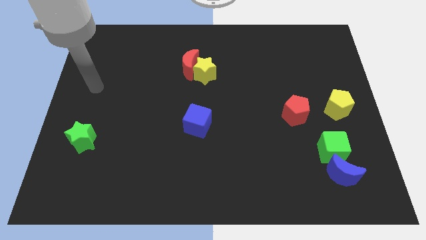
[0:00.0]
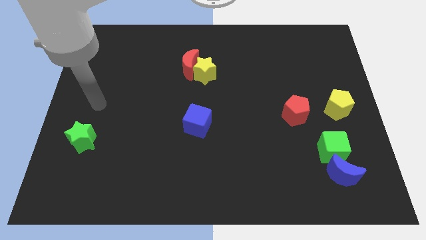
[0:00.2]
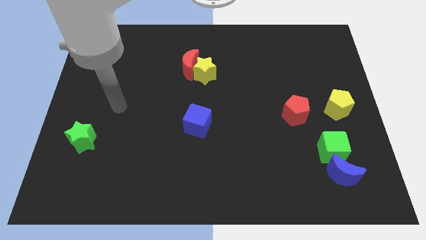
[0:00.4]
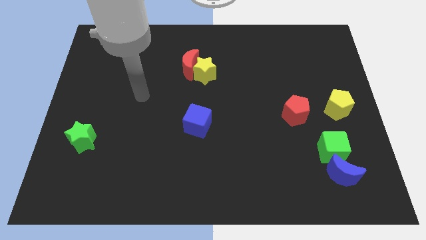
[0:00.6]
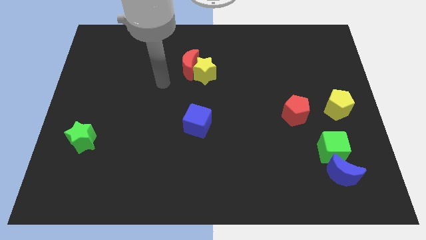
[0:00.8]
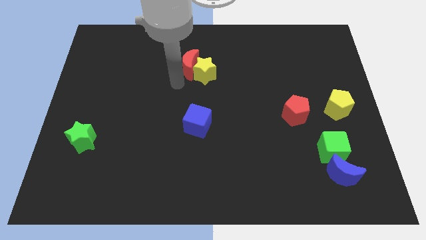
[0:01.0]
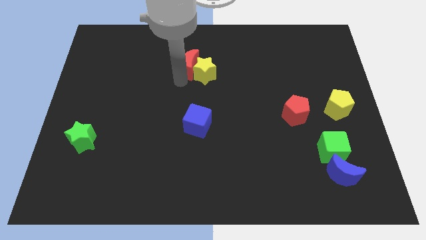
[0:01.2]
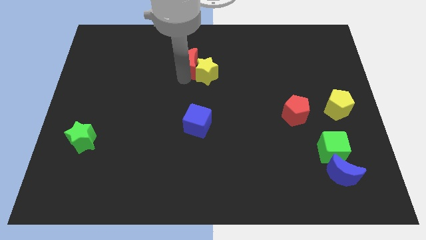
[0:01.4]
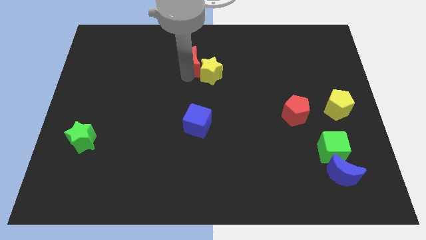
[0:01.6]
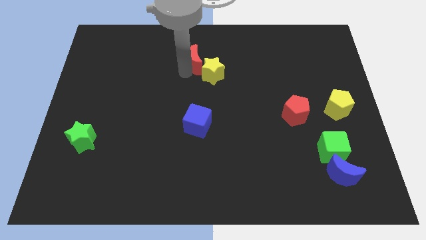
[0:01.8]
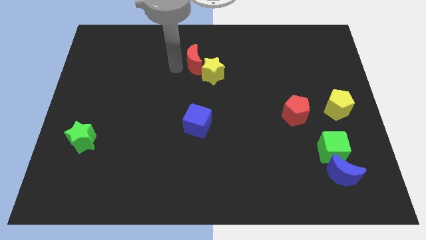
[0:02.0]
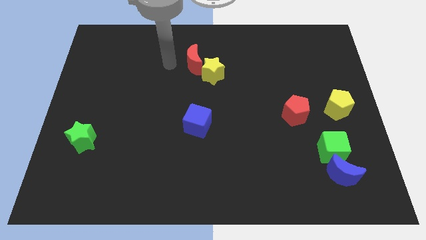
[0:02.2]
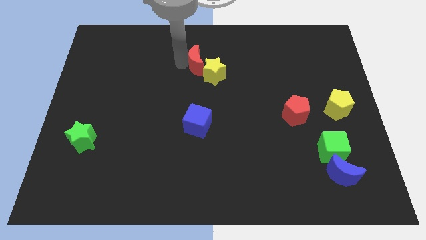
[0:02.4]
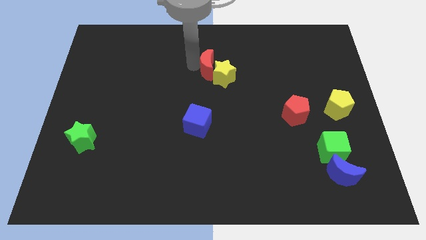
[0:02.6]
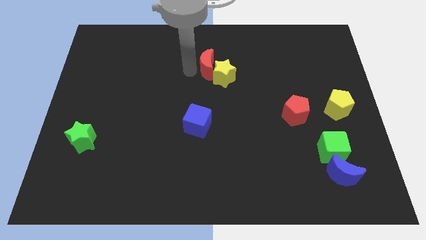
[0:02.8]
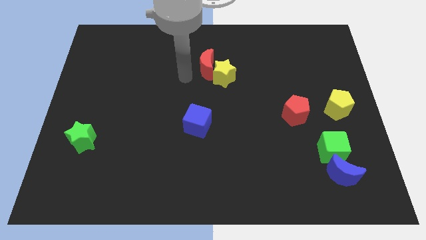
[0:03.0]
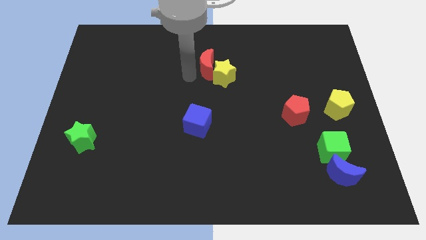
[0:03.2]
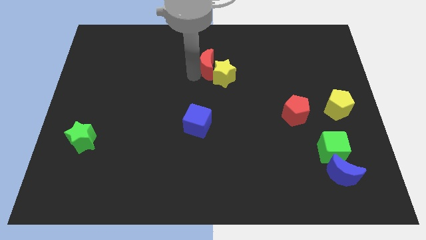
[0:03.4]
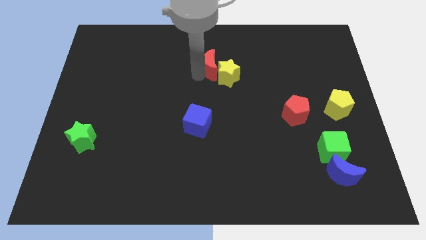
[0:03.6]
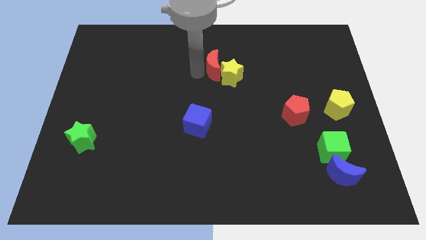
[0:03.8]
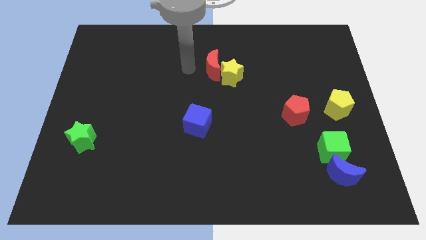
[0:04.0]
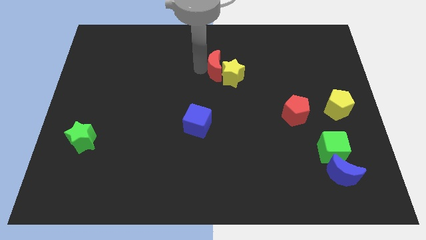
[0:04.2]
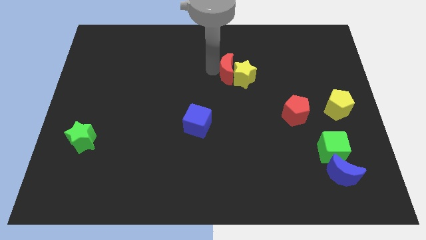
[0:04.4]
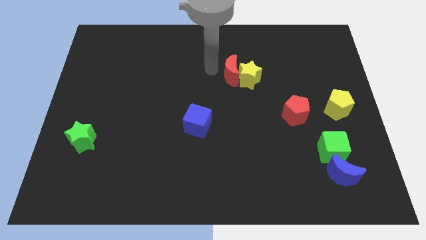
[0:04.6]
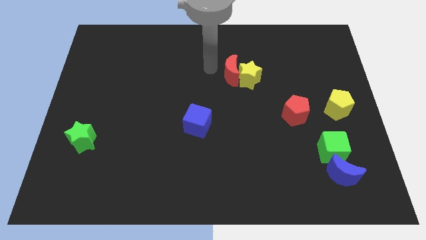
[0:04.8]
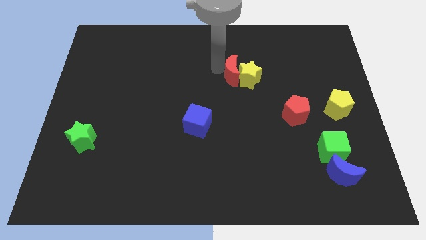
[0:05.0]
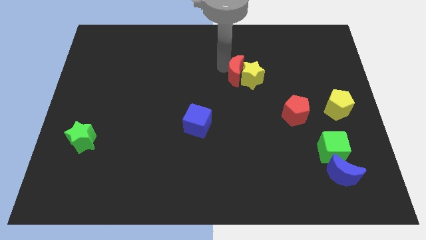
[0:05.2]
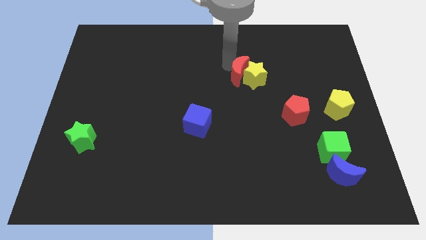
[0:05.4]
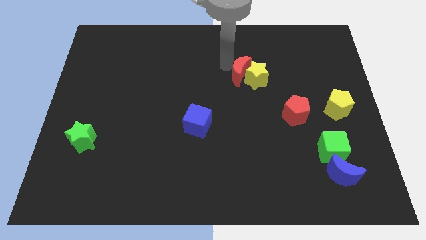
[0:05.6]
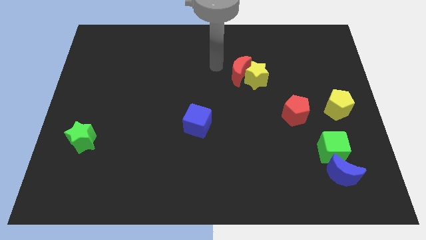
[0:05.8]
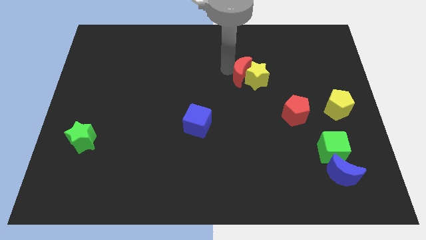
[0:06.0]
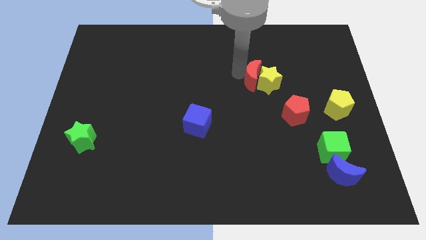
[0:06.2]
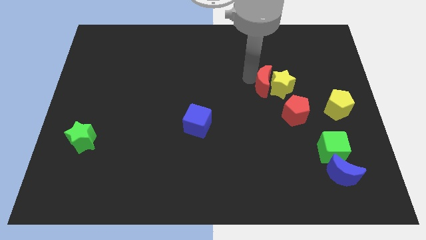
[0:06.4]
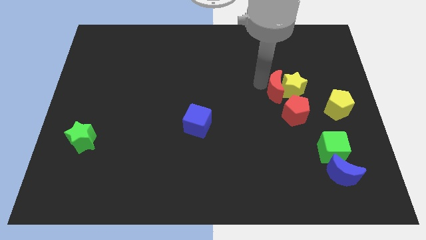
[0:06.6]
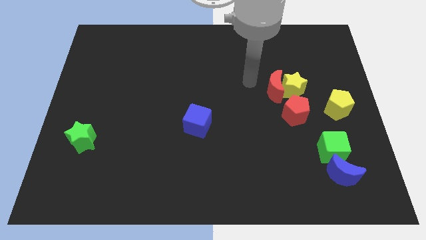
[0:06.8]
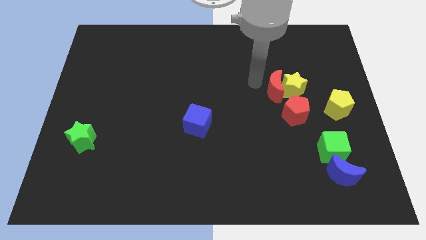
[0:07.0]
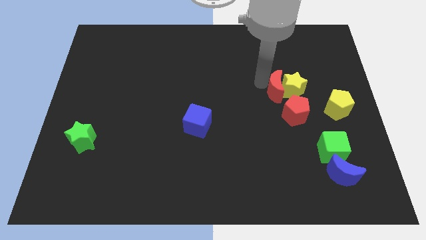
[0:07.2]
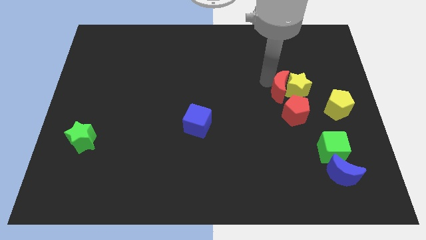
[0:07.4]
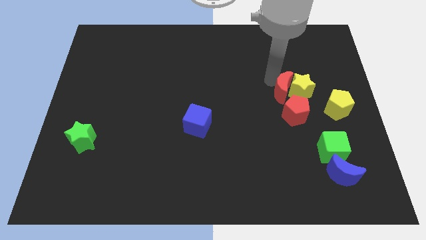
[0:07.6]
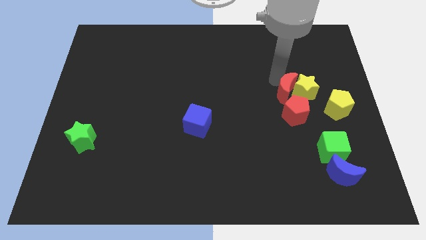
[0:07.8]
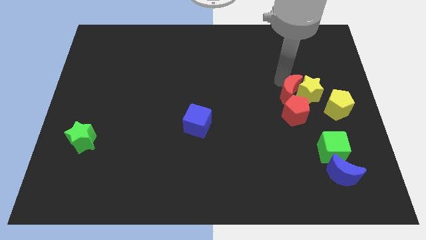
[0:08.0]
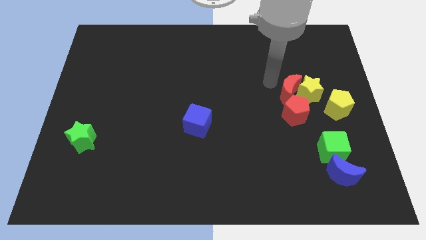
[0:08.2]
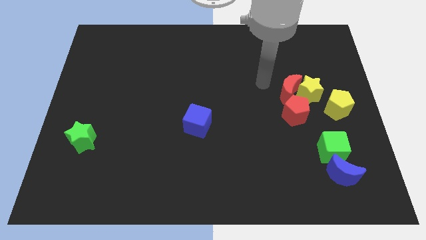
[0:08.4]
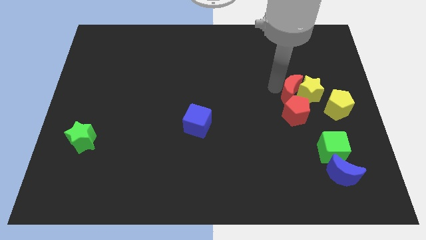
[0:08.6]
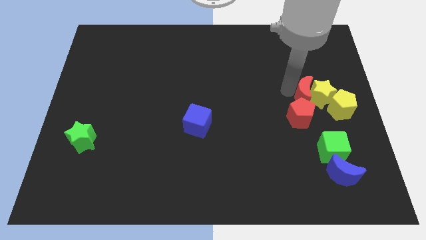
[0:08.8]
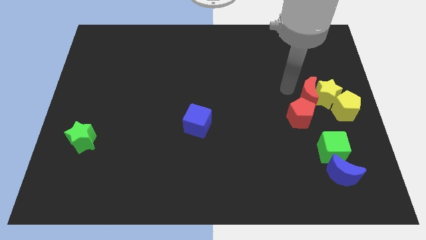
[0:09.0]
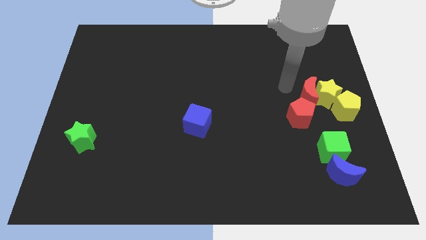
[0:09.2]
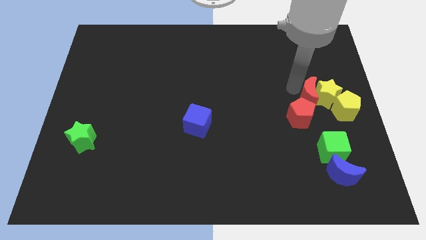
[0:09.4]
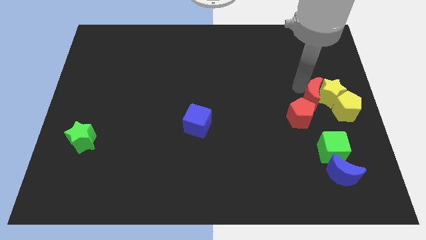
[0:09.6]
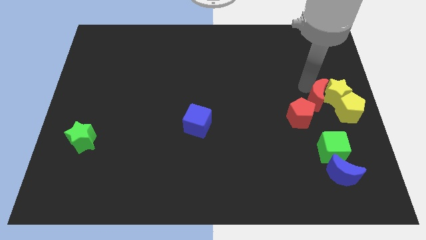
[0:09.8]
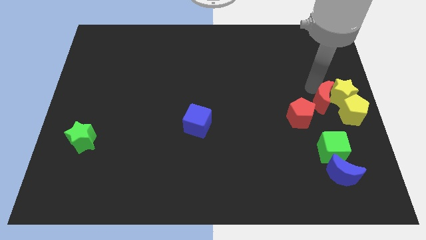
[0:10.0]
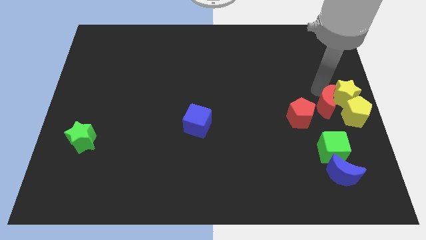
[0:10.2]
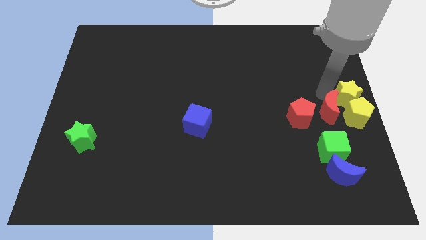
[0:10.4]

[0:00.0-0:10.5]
slide the red moon close to the yellow pentagon

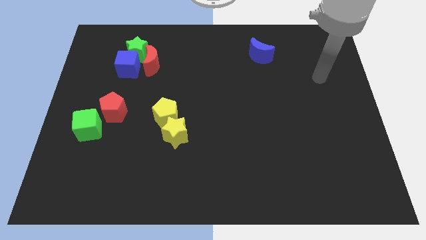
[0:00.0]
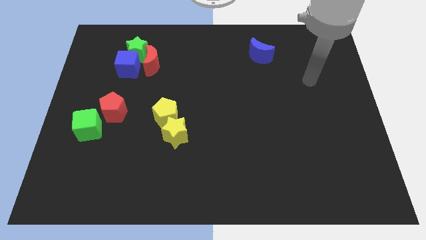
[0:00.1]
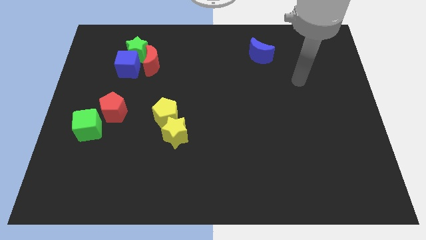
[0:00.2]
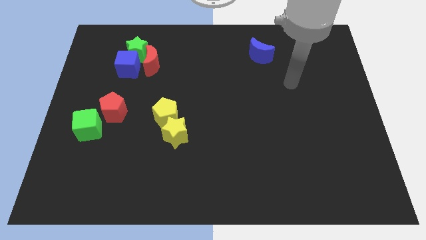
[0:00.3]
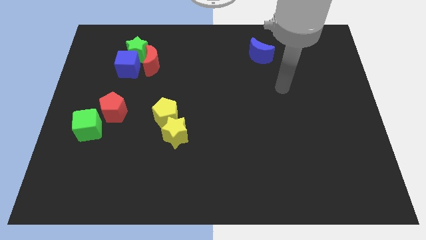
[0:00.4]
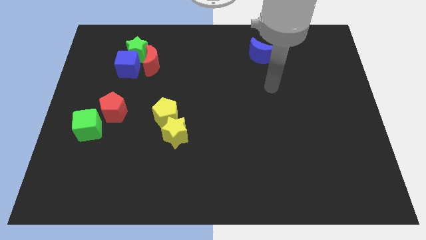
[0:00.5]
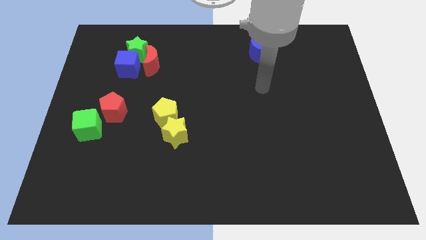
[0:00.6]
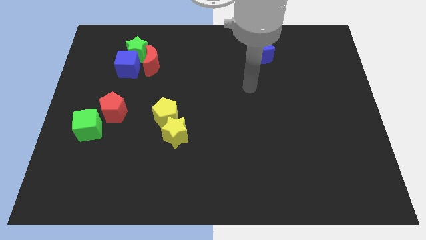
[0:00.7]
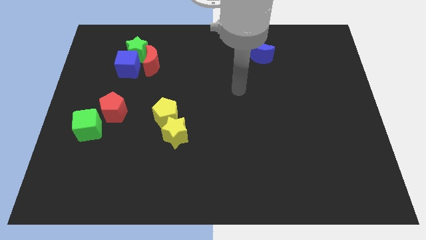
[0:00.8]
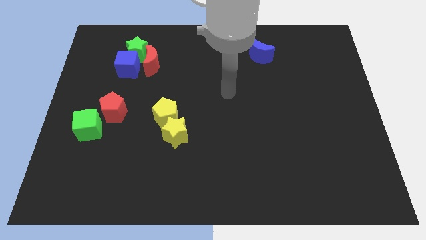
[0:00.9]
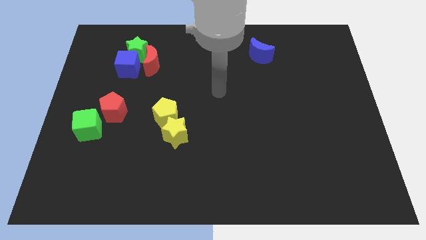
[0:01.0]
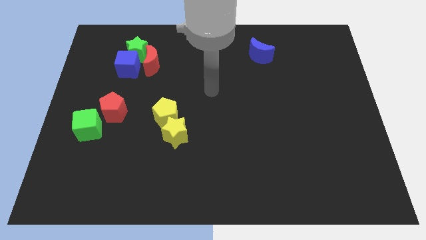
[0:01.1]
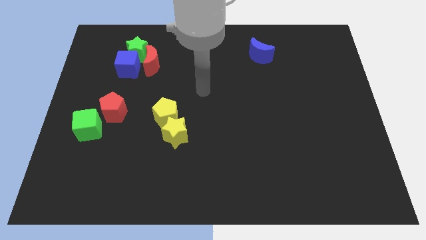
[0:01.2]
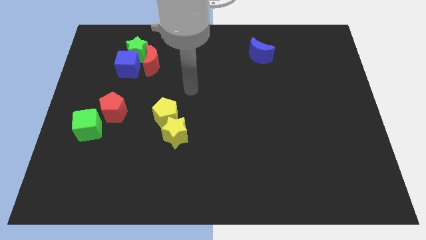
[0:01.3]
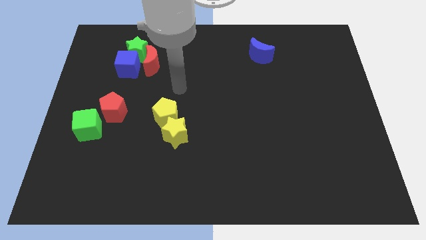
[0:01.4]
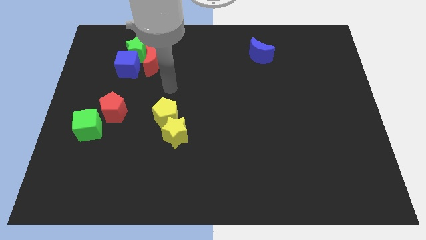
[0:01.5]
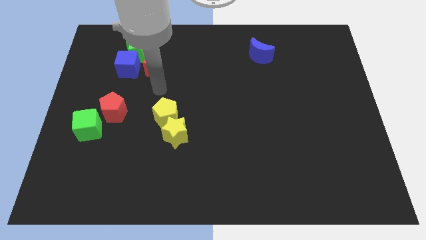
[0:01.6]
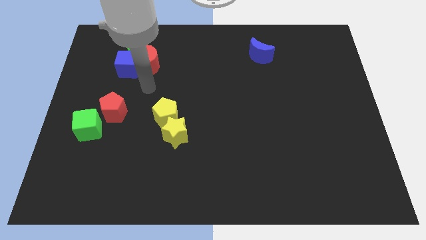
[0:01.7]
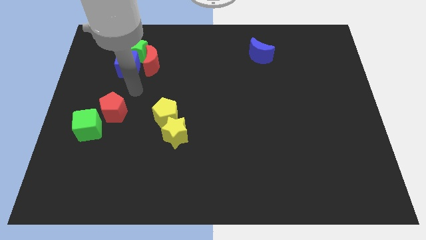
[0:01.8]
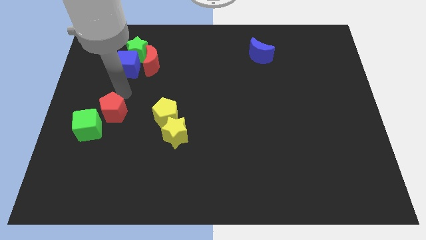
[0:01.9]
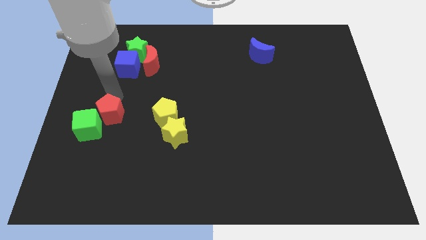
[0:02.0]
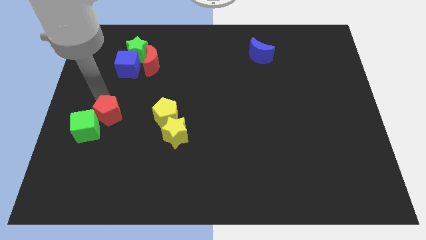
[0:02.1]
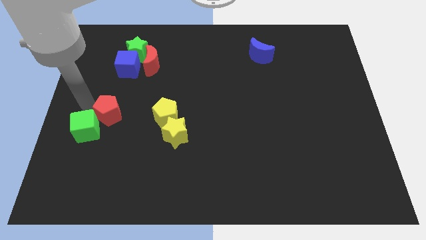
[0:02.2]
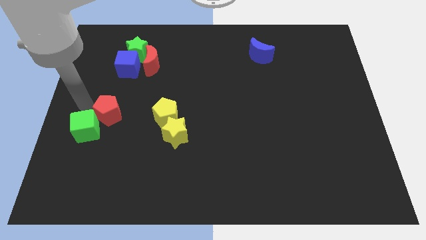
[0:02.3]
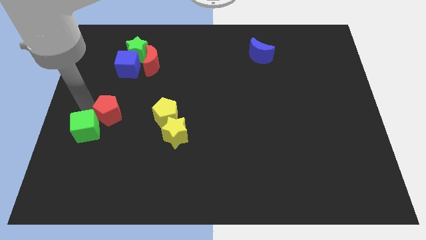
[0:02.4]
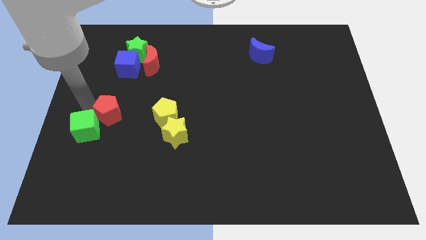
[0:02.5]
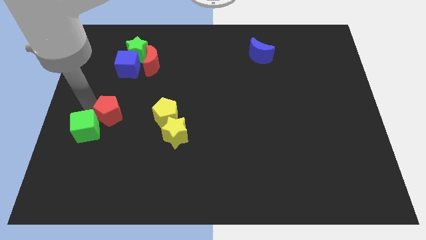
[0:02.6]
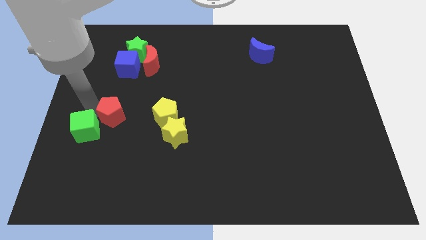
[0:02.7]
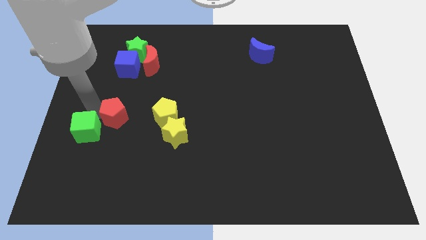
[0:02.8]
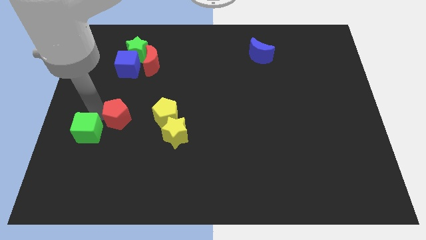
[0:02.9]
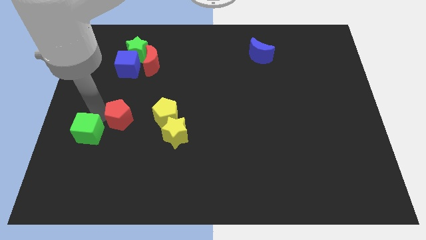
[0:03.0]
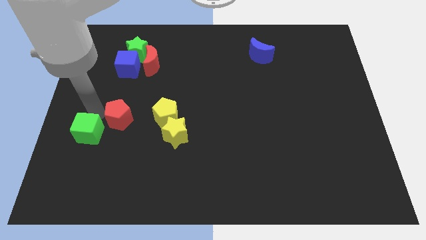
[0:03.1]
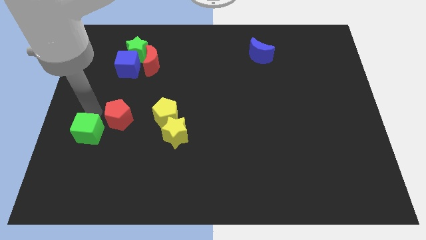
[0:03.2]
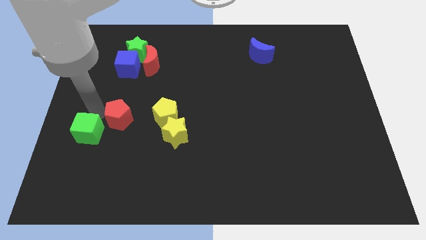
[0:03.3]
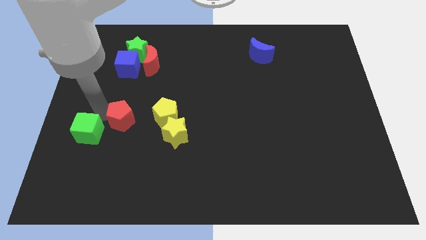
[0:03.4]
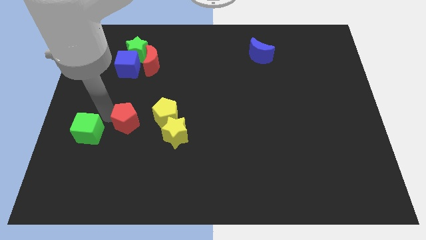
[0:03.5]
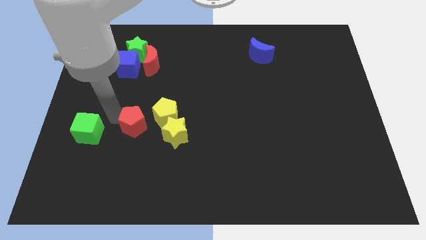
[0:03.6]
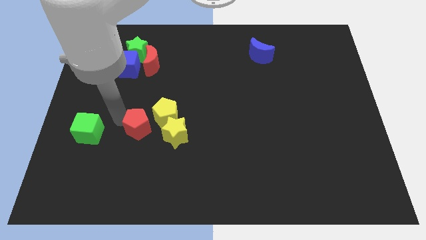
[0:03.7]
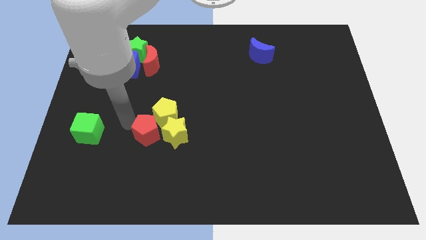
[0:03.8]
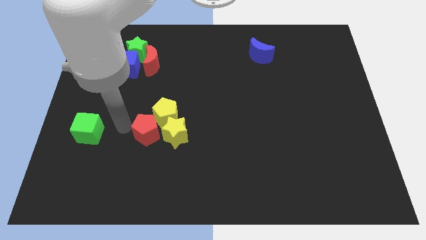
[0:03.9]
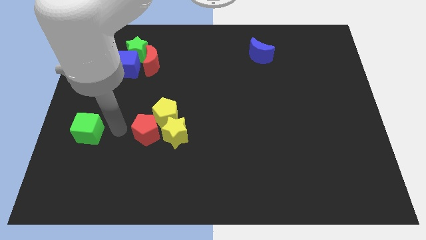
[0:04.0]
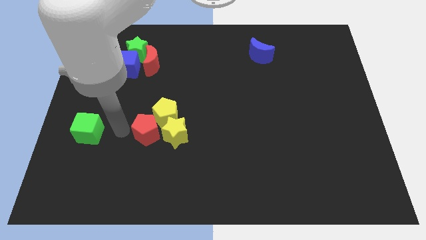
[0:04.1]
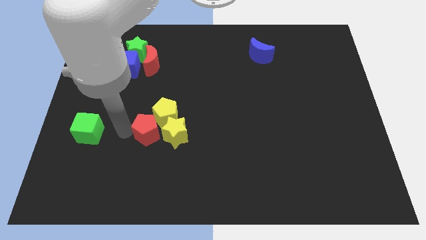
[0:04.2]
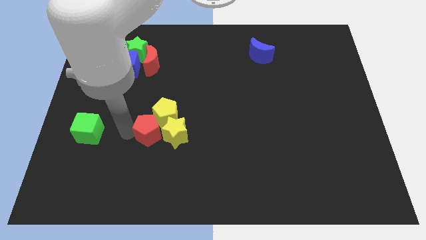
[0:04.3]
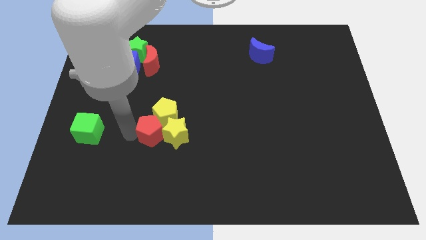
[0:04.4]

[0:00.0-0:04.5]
slide the red pentagon towards the yellow star
